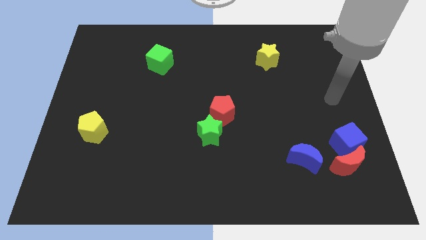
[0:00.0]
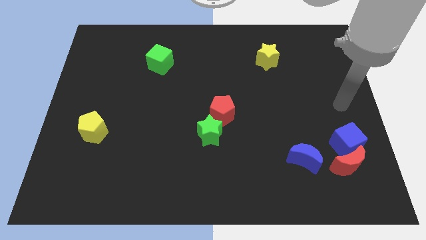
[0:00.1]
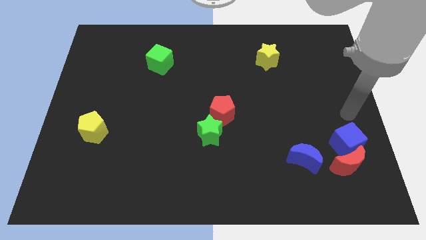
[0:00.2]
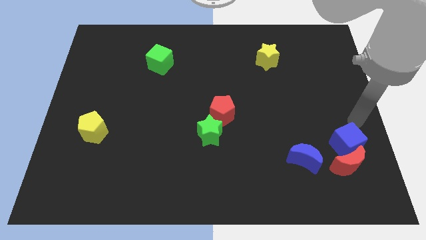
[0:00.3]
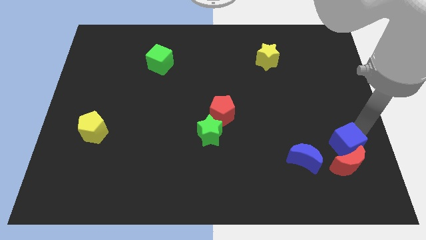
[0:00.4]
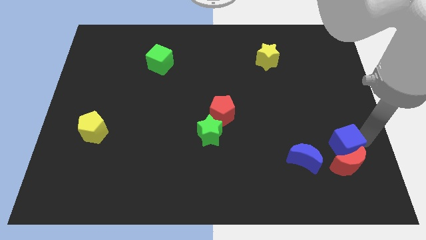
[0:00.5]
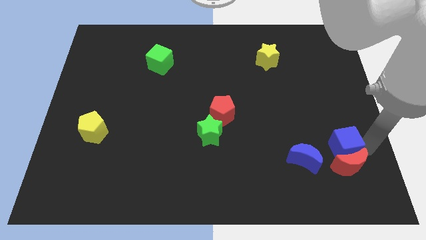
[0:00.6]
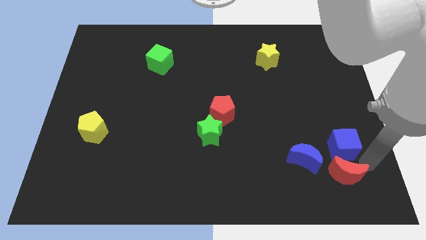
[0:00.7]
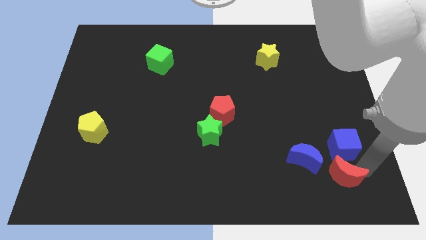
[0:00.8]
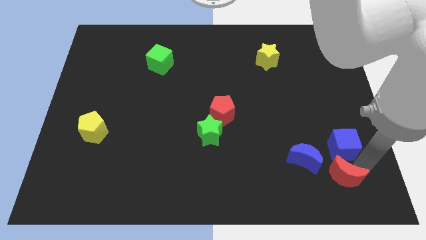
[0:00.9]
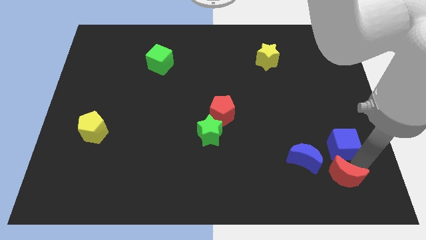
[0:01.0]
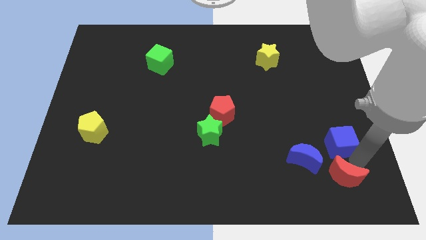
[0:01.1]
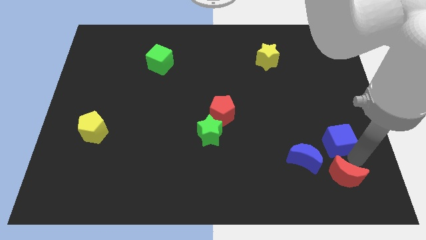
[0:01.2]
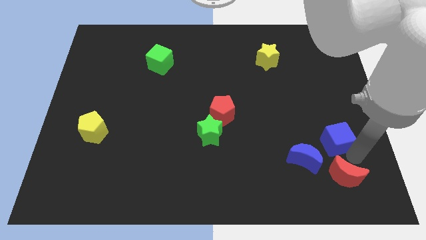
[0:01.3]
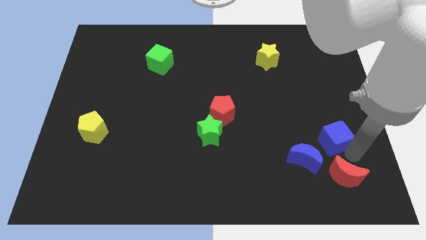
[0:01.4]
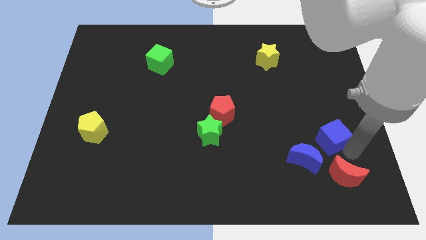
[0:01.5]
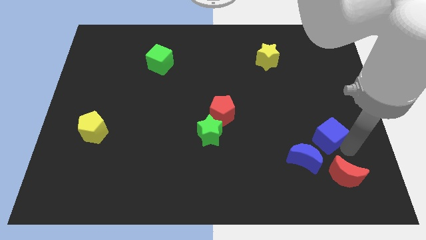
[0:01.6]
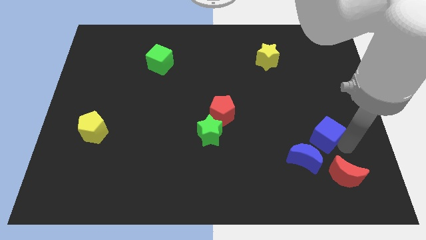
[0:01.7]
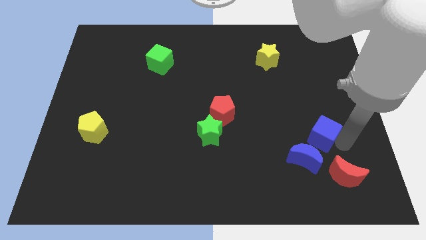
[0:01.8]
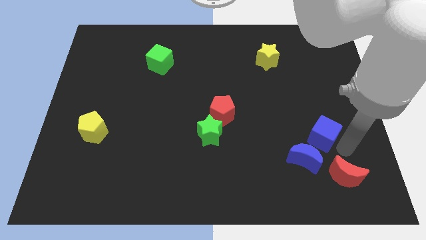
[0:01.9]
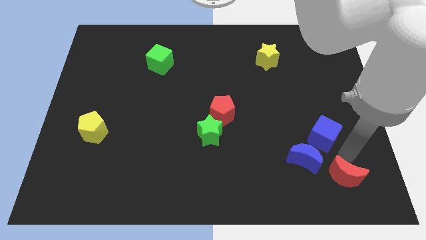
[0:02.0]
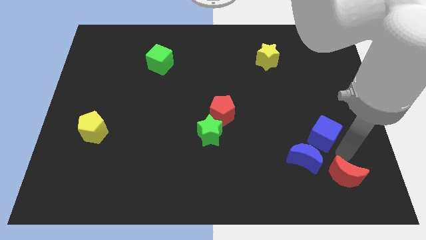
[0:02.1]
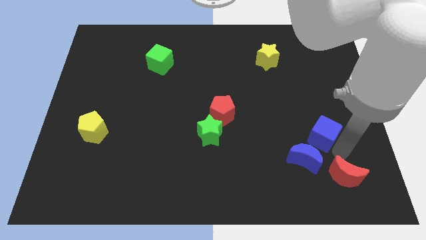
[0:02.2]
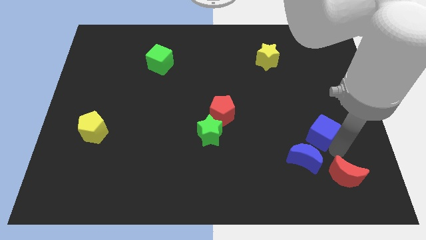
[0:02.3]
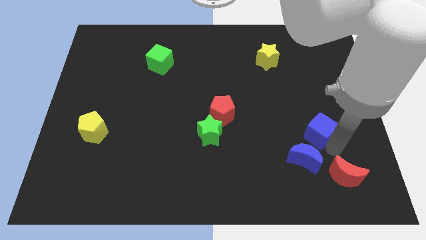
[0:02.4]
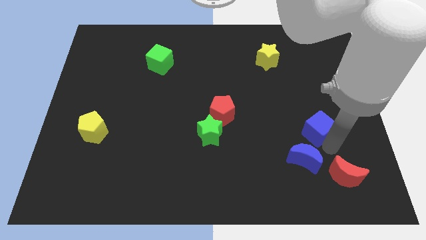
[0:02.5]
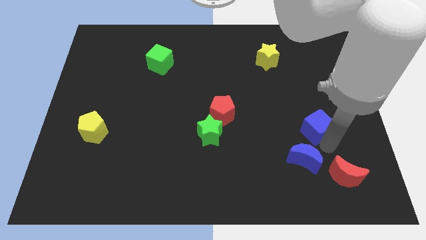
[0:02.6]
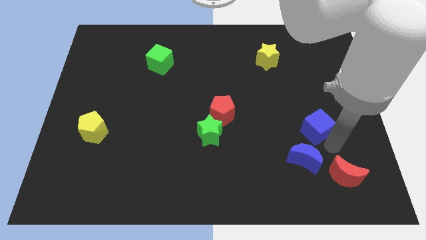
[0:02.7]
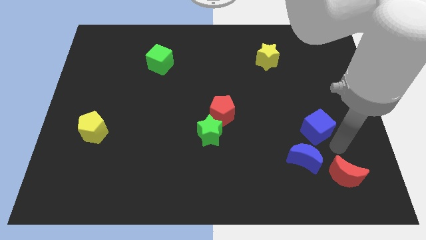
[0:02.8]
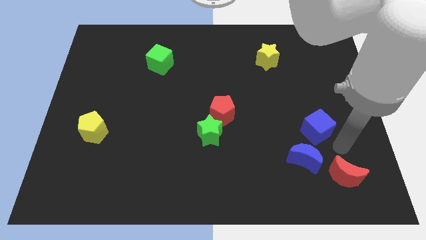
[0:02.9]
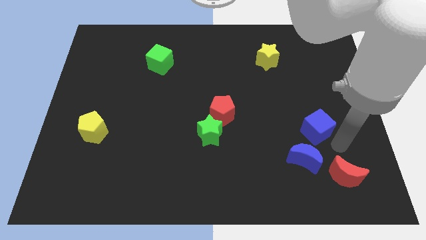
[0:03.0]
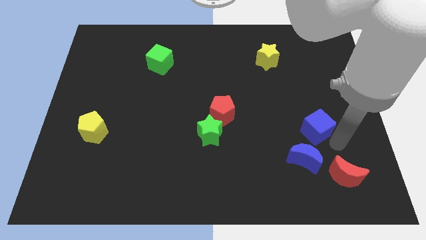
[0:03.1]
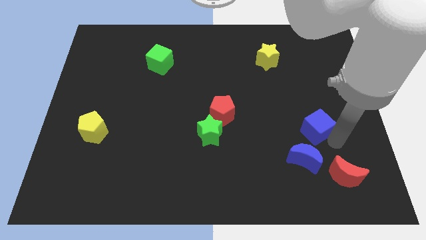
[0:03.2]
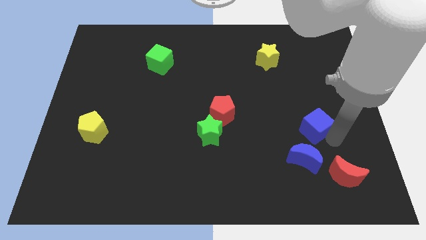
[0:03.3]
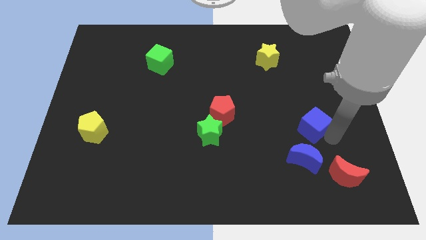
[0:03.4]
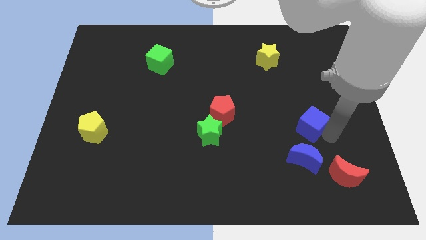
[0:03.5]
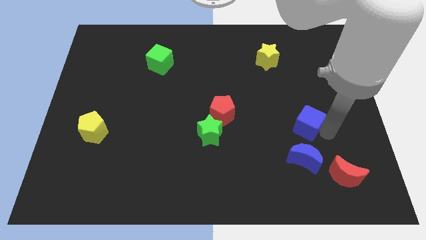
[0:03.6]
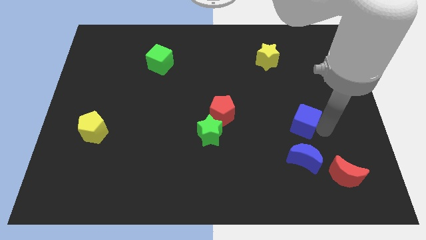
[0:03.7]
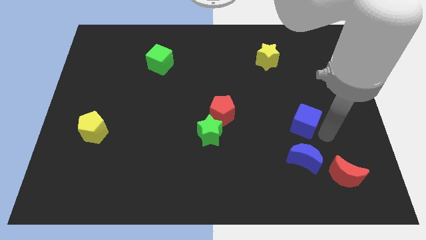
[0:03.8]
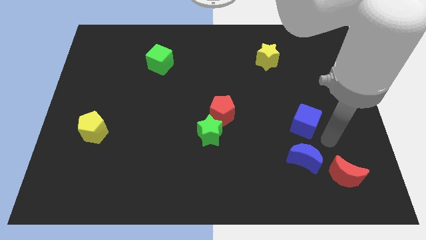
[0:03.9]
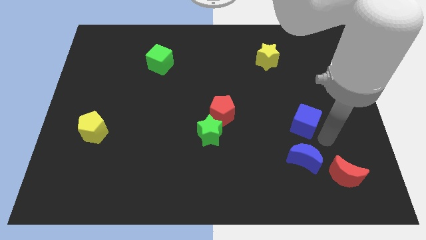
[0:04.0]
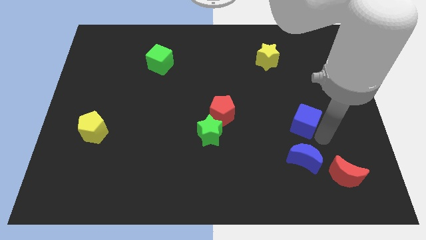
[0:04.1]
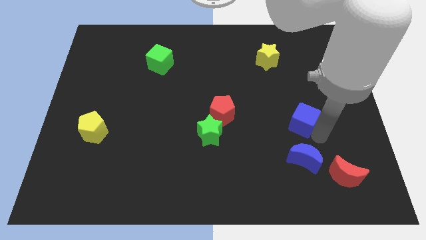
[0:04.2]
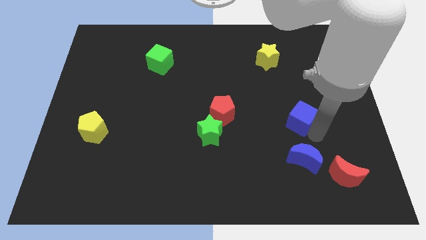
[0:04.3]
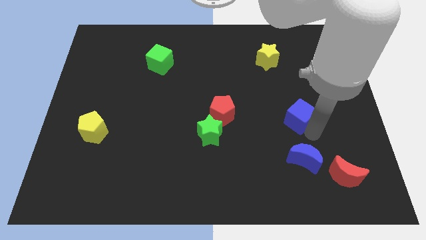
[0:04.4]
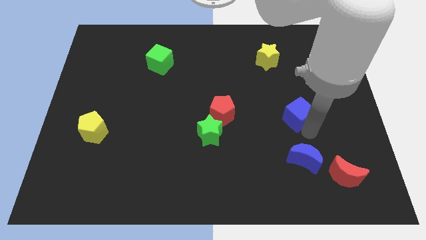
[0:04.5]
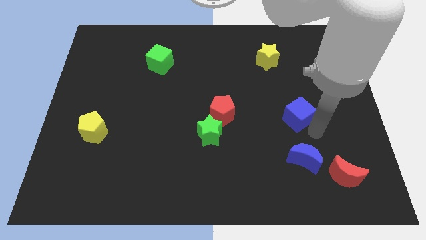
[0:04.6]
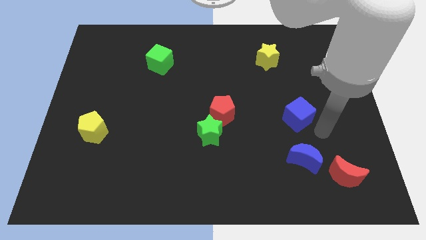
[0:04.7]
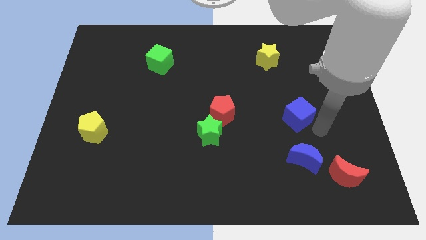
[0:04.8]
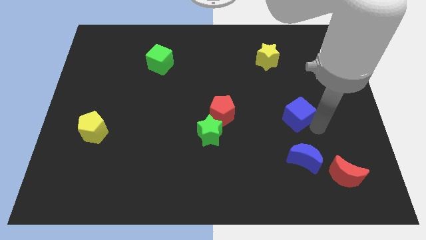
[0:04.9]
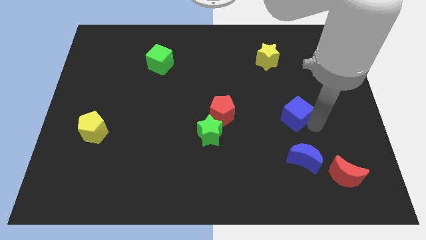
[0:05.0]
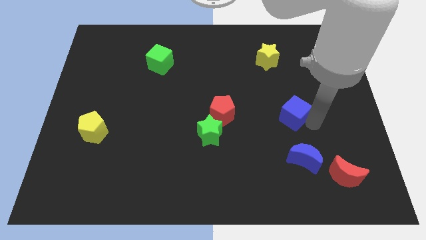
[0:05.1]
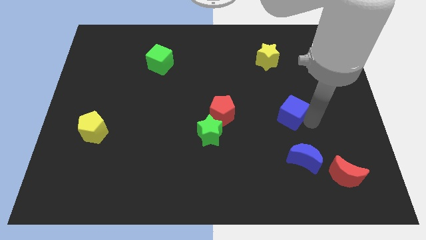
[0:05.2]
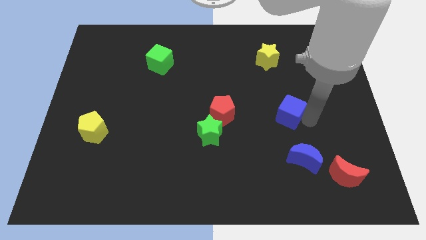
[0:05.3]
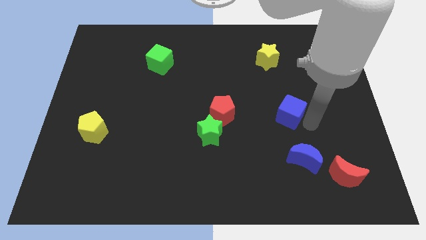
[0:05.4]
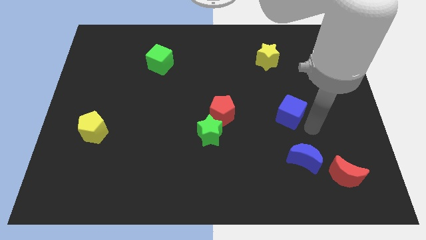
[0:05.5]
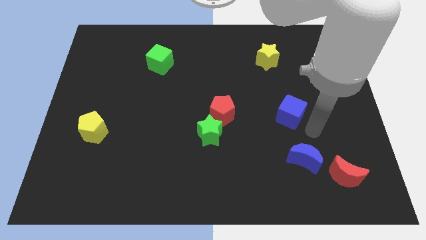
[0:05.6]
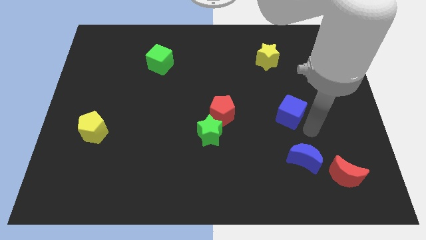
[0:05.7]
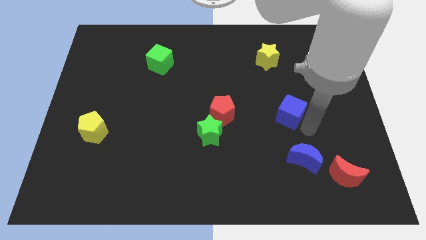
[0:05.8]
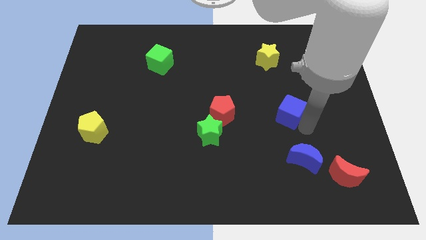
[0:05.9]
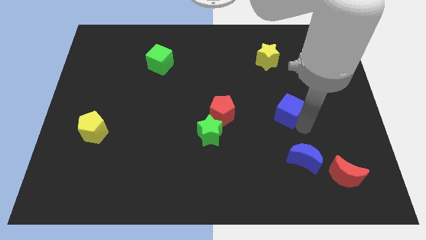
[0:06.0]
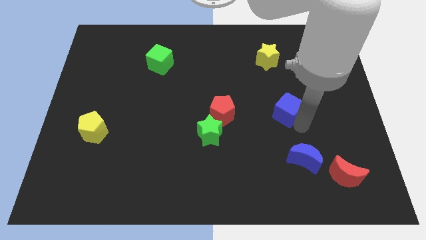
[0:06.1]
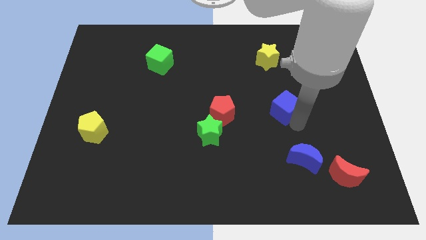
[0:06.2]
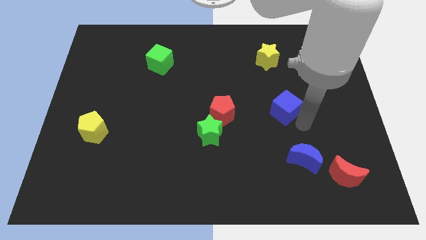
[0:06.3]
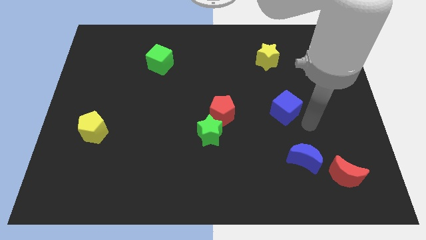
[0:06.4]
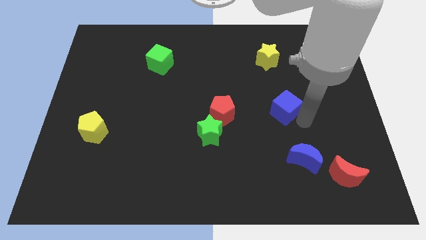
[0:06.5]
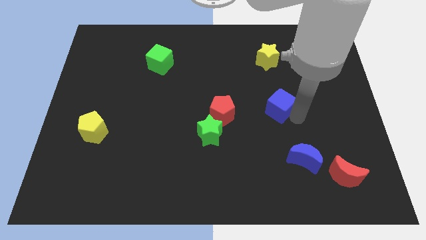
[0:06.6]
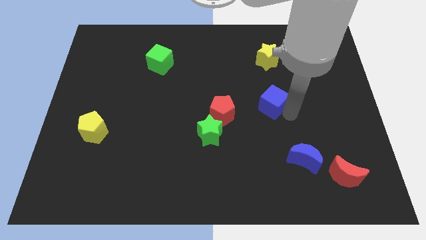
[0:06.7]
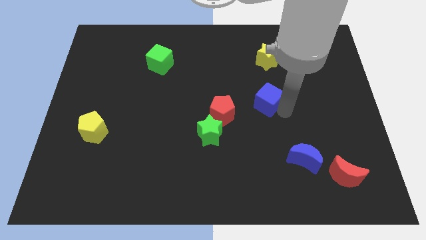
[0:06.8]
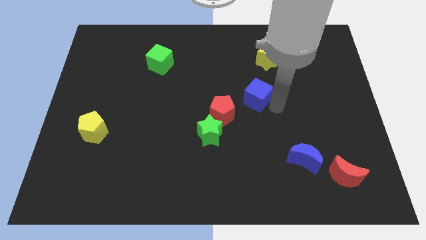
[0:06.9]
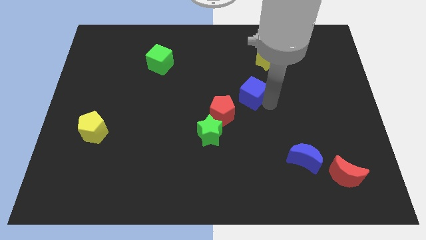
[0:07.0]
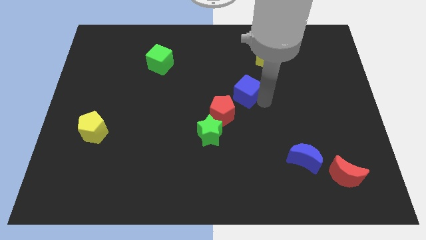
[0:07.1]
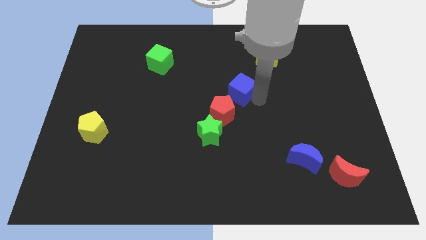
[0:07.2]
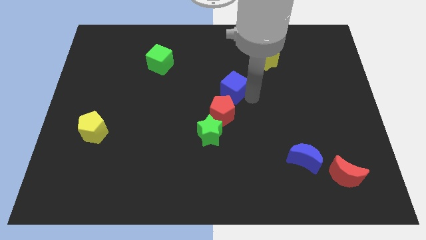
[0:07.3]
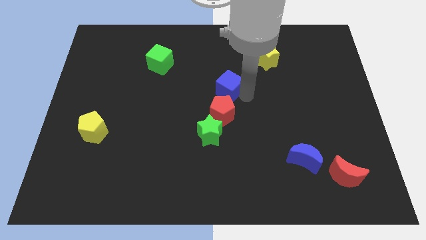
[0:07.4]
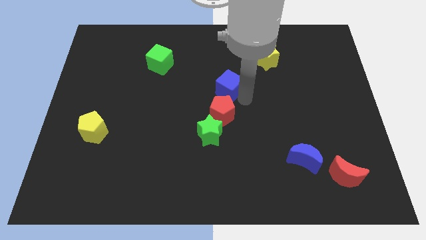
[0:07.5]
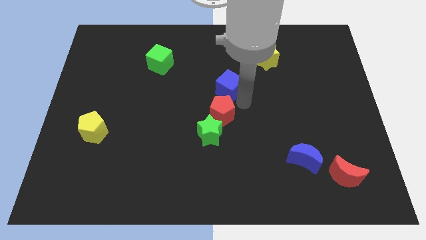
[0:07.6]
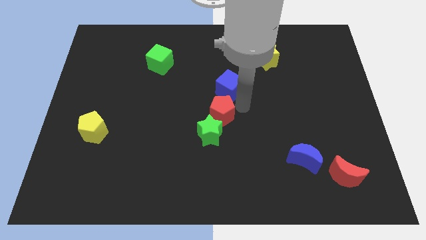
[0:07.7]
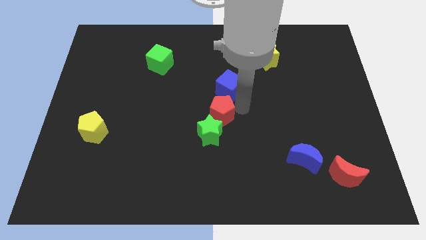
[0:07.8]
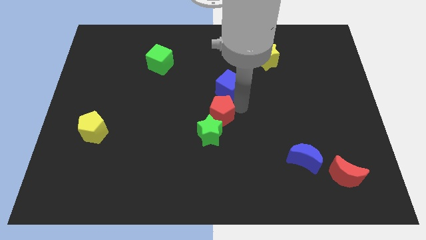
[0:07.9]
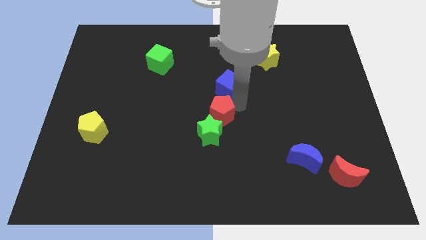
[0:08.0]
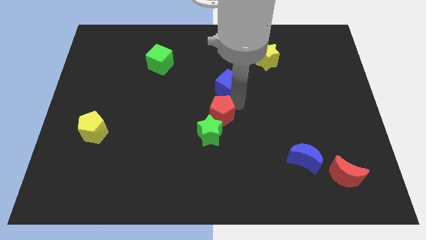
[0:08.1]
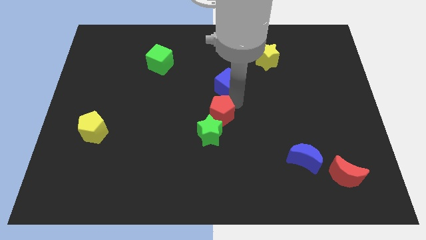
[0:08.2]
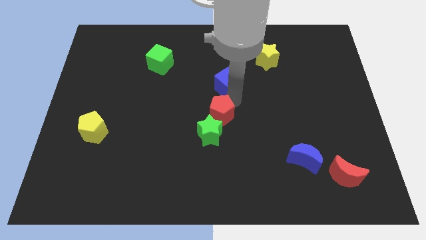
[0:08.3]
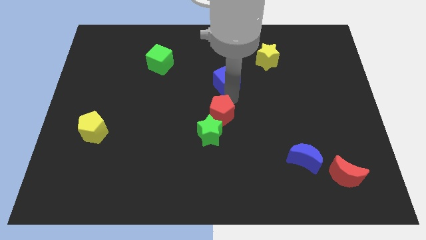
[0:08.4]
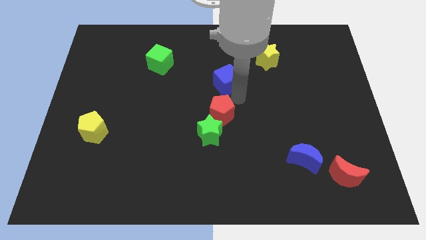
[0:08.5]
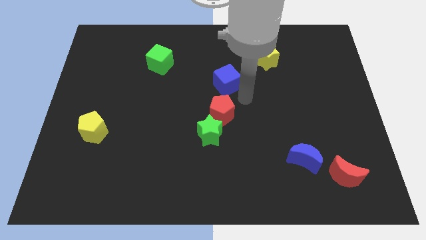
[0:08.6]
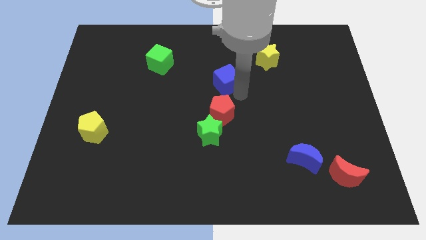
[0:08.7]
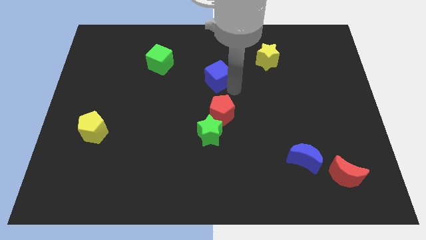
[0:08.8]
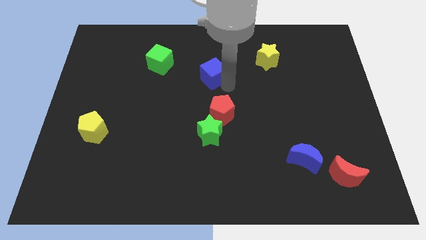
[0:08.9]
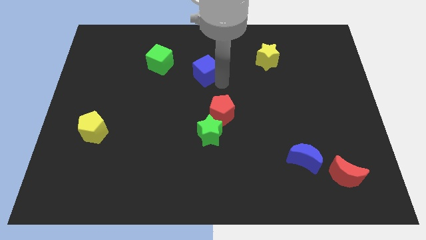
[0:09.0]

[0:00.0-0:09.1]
push the blue cube to the right of the green cube
